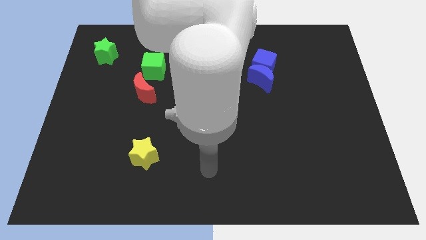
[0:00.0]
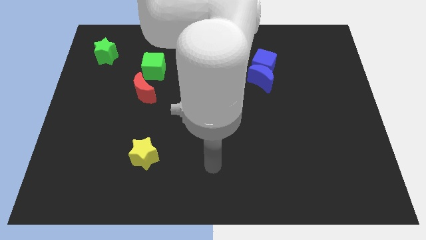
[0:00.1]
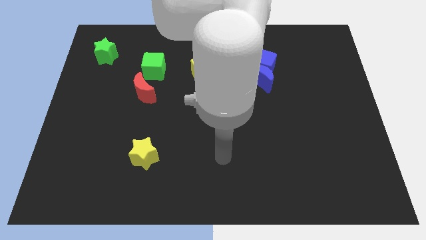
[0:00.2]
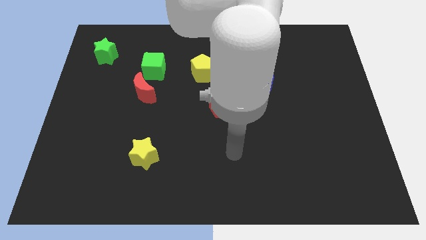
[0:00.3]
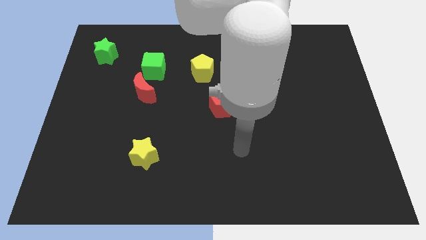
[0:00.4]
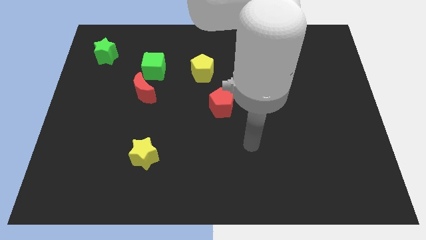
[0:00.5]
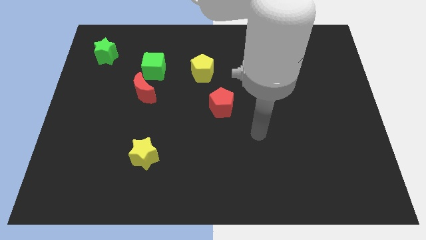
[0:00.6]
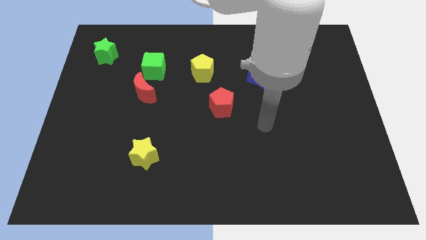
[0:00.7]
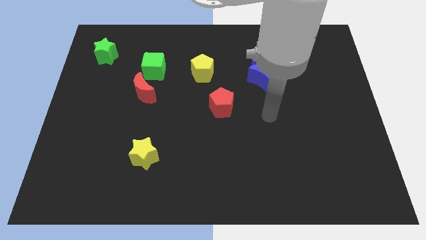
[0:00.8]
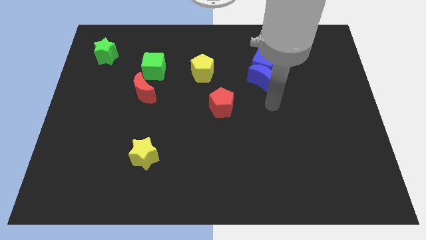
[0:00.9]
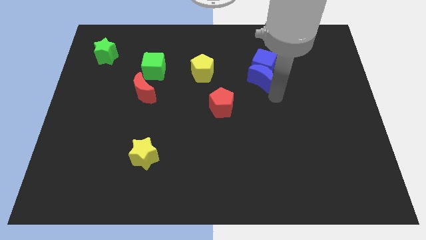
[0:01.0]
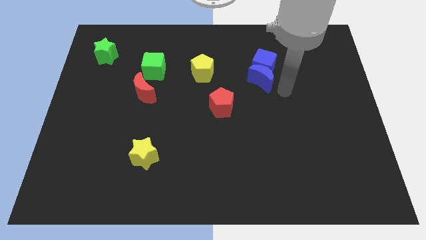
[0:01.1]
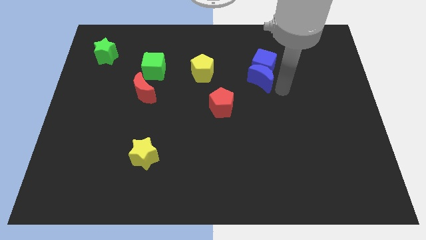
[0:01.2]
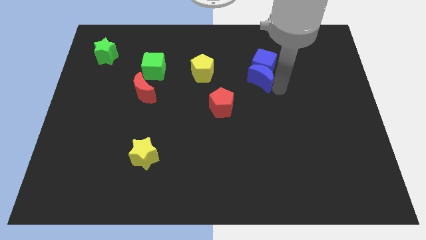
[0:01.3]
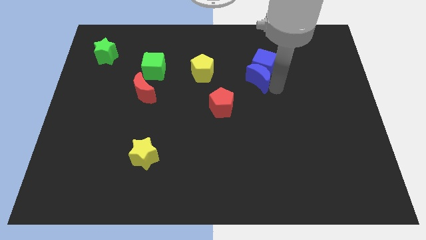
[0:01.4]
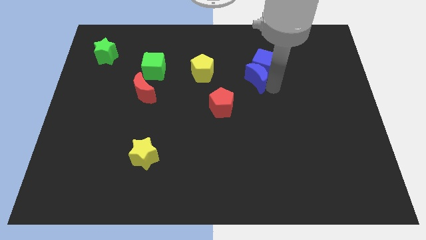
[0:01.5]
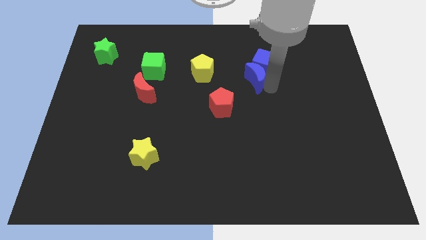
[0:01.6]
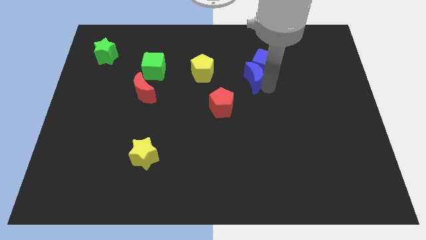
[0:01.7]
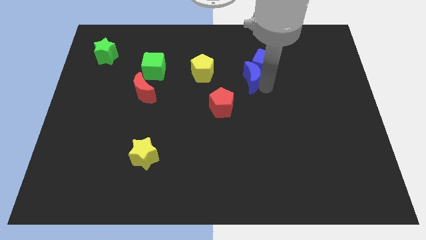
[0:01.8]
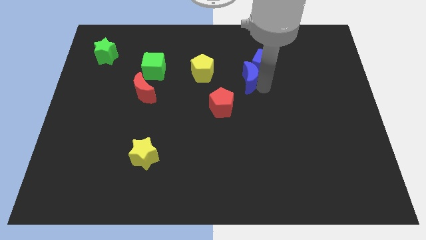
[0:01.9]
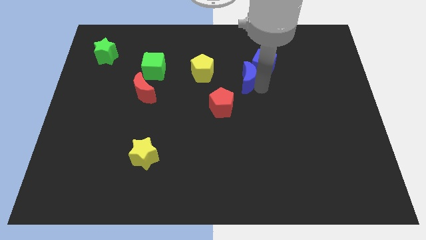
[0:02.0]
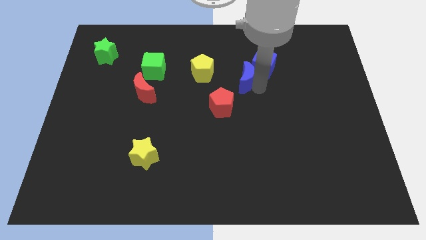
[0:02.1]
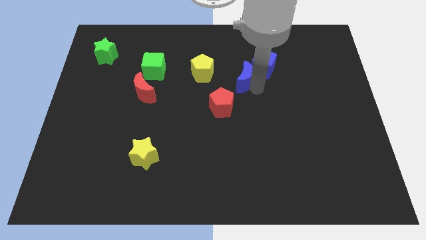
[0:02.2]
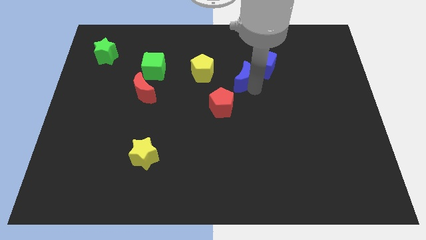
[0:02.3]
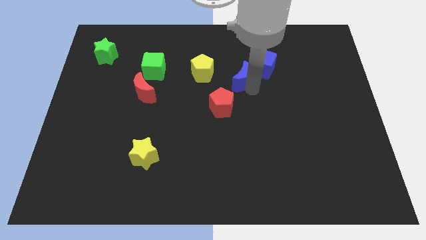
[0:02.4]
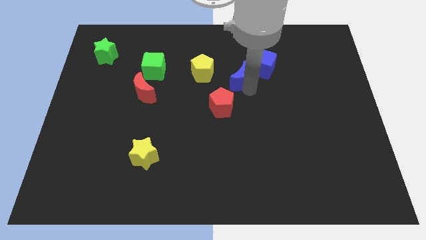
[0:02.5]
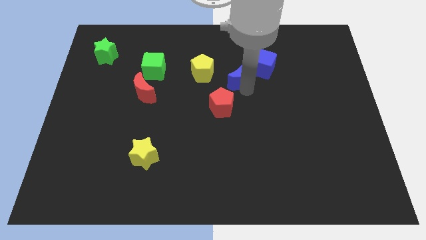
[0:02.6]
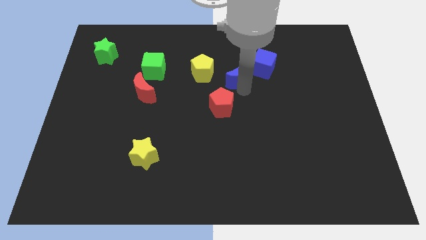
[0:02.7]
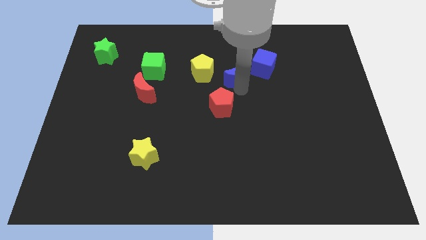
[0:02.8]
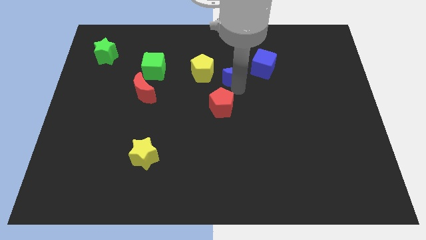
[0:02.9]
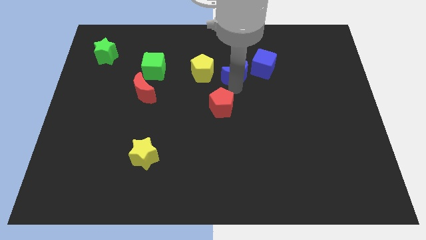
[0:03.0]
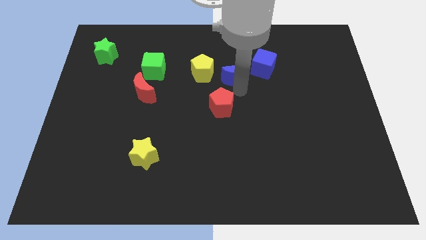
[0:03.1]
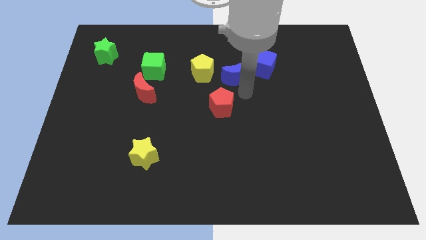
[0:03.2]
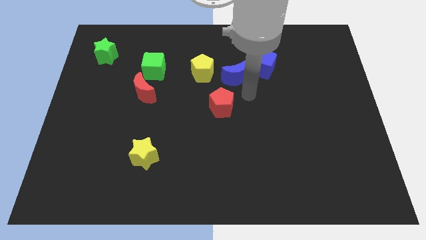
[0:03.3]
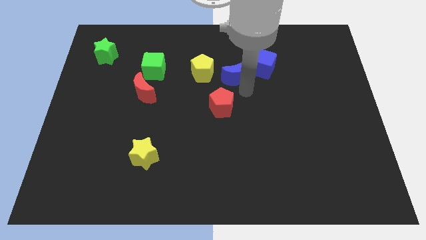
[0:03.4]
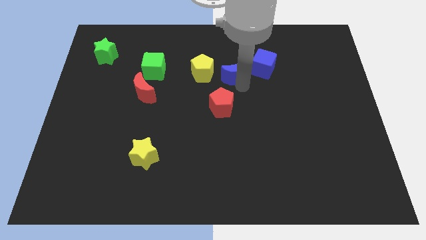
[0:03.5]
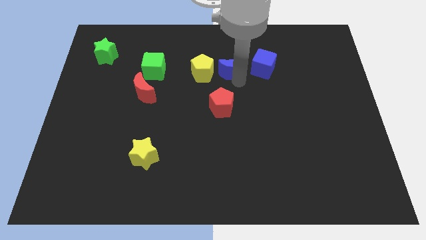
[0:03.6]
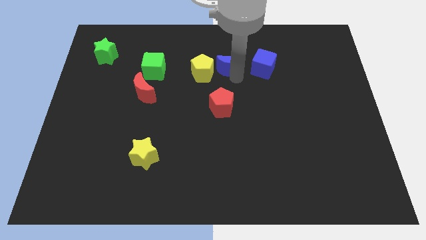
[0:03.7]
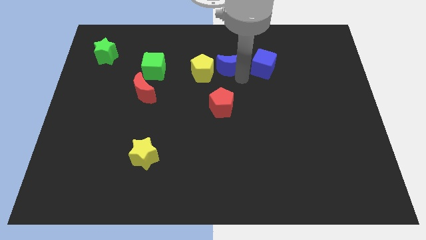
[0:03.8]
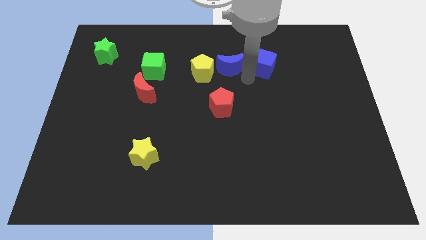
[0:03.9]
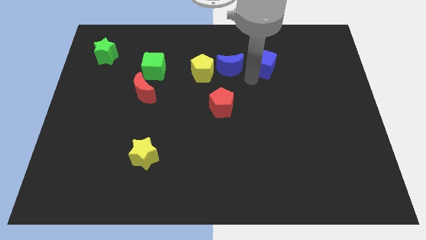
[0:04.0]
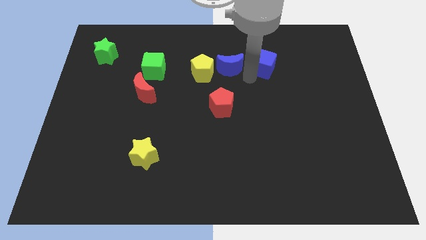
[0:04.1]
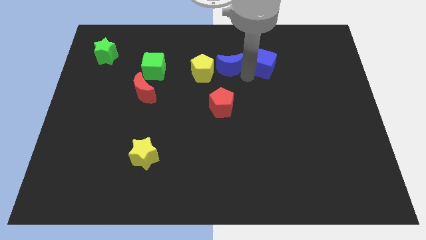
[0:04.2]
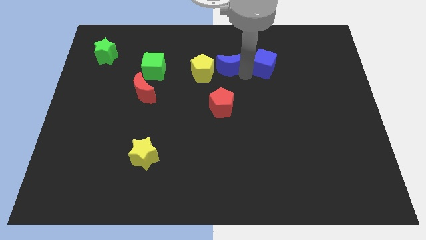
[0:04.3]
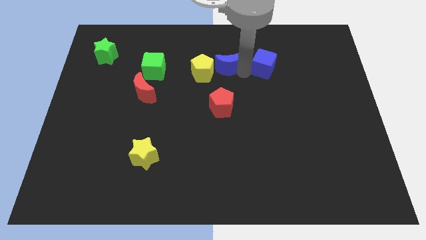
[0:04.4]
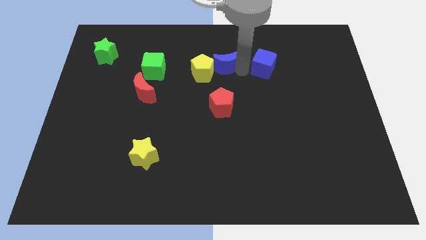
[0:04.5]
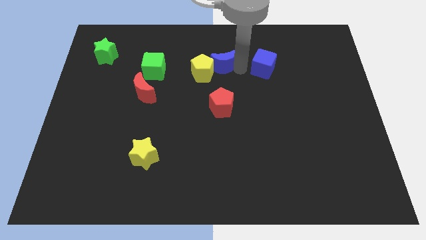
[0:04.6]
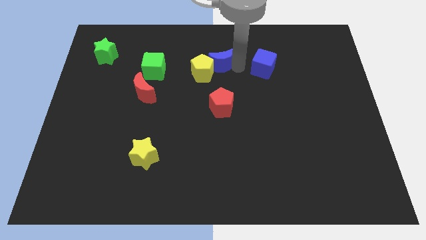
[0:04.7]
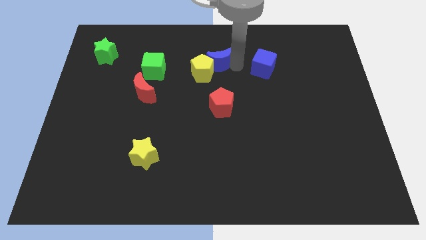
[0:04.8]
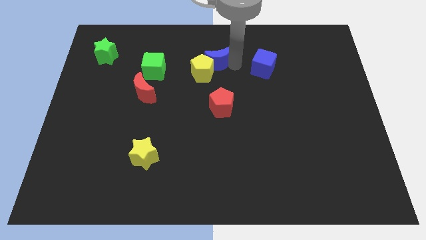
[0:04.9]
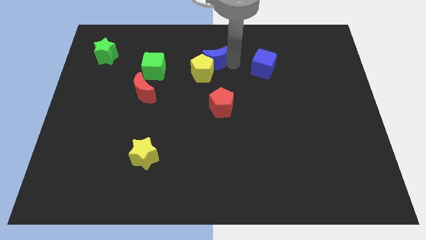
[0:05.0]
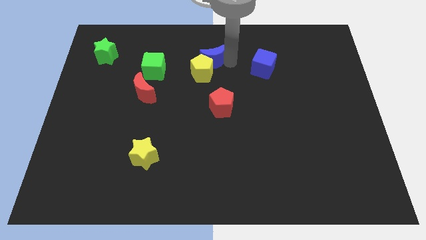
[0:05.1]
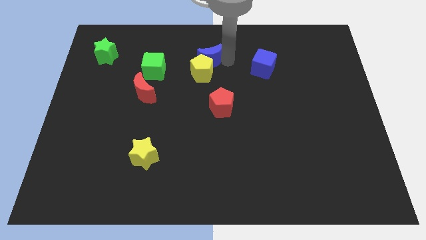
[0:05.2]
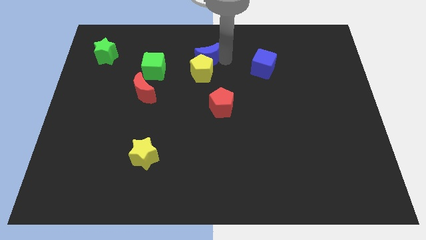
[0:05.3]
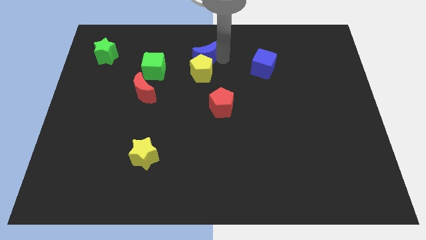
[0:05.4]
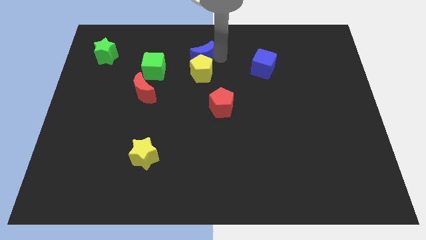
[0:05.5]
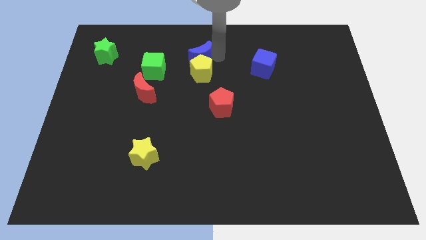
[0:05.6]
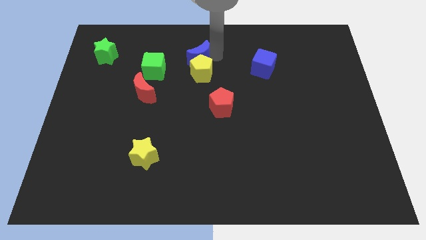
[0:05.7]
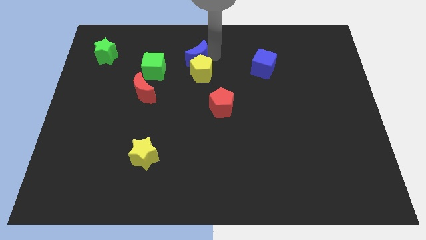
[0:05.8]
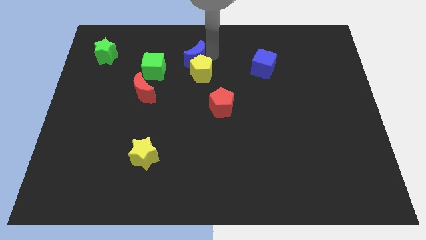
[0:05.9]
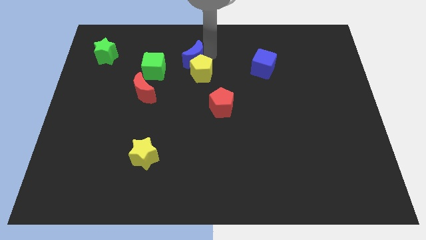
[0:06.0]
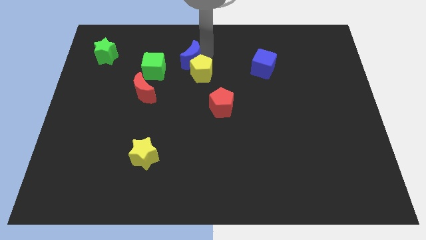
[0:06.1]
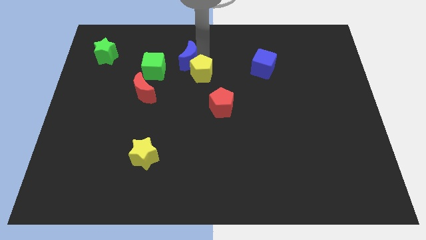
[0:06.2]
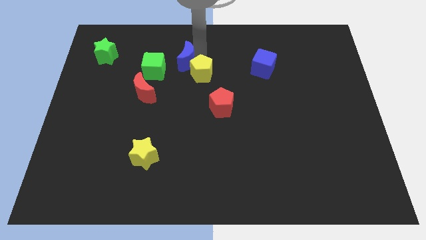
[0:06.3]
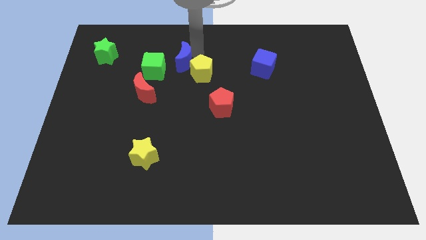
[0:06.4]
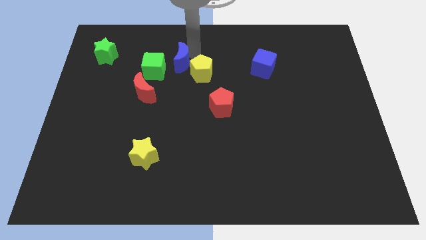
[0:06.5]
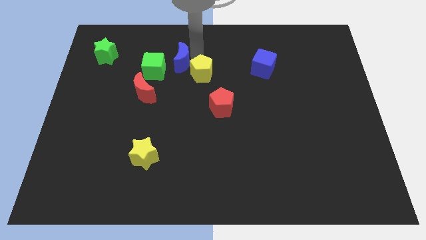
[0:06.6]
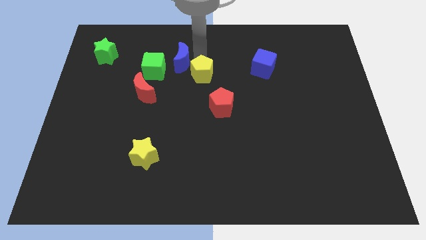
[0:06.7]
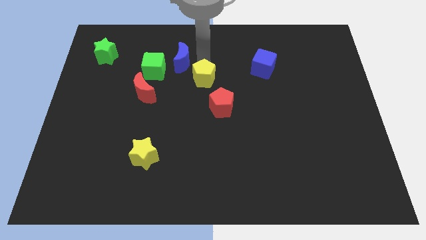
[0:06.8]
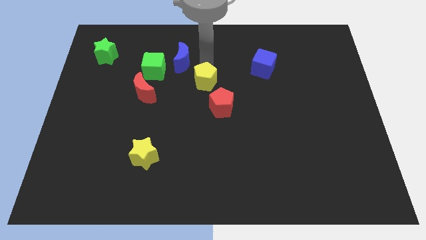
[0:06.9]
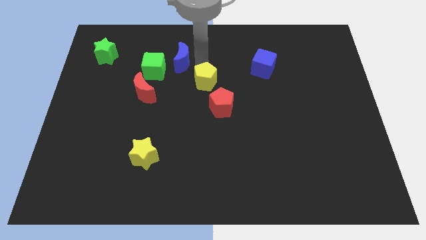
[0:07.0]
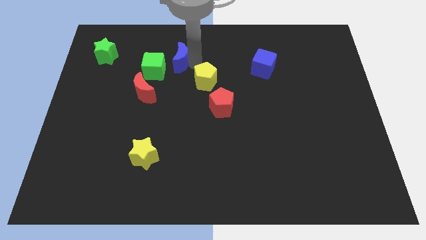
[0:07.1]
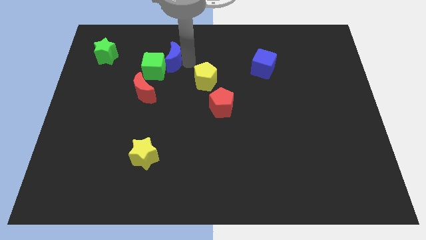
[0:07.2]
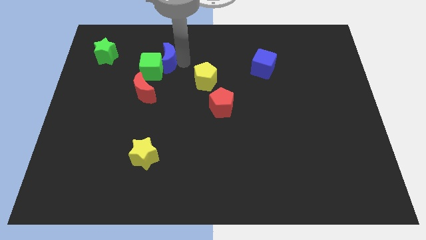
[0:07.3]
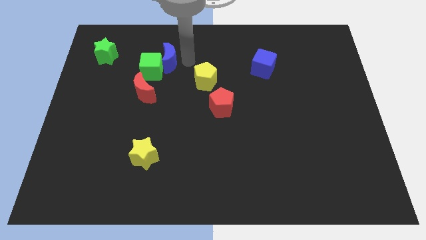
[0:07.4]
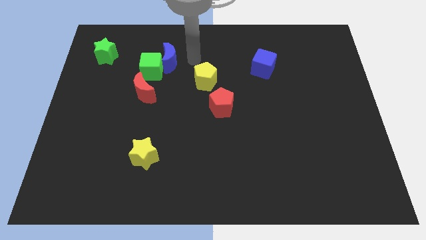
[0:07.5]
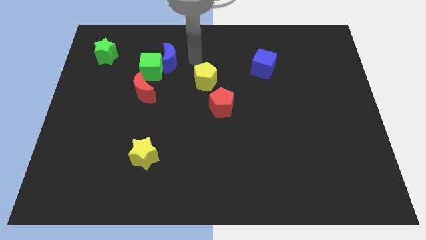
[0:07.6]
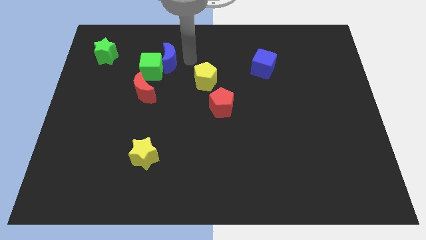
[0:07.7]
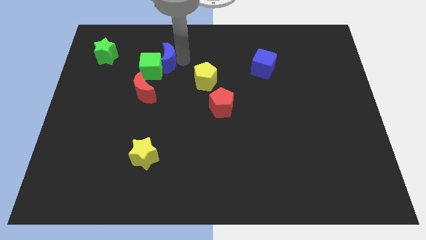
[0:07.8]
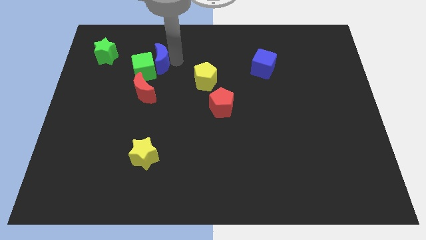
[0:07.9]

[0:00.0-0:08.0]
slide the blue moon to the top side of the red moon
